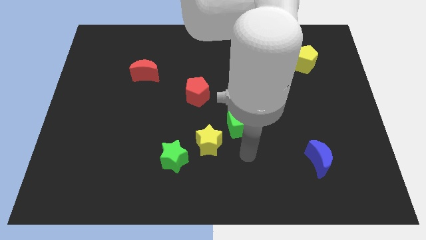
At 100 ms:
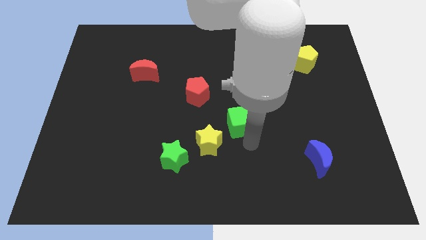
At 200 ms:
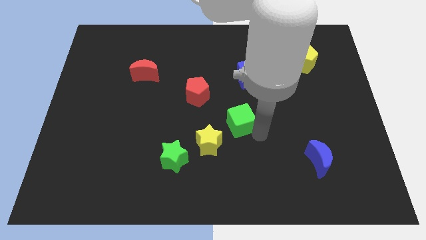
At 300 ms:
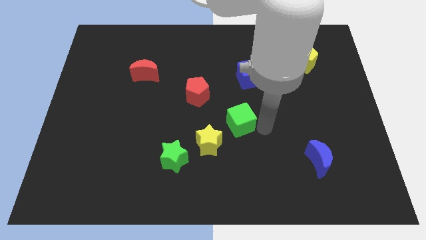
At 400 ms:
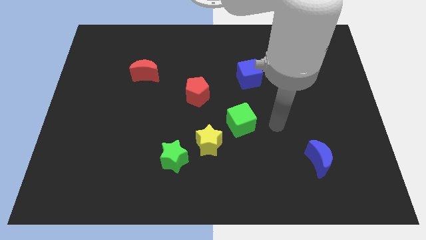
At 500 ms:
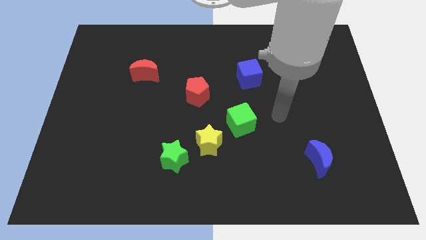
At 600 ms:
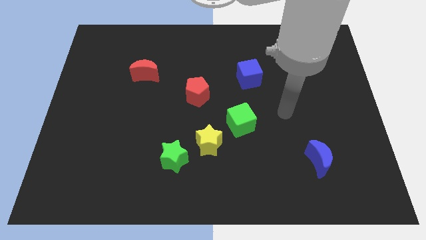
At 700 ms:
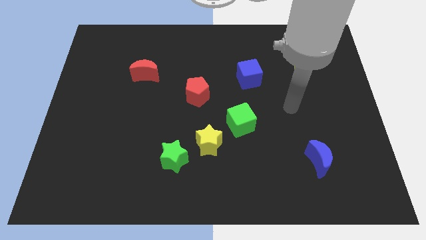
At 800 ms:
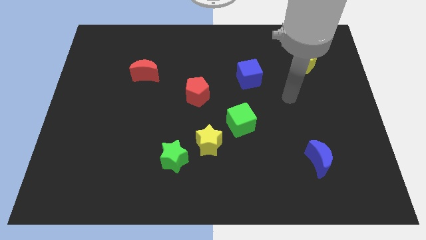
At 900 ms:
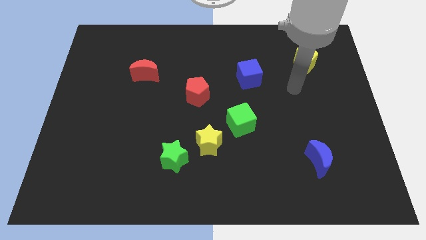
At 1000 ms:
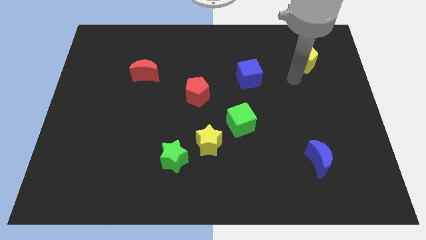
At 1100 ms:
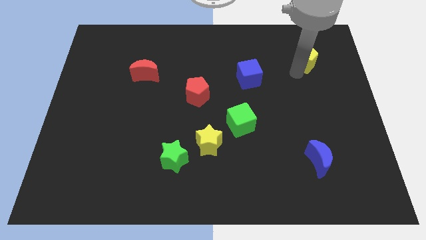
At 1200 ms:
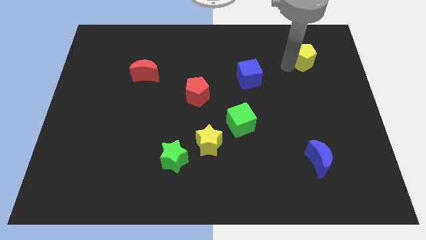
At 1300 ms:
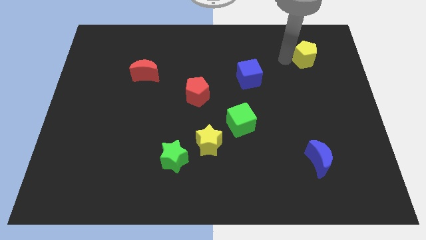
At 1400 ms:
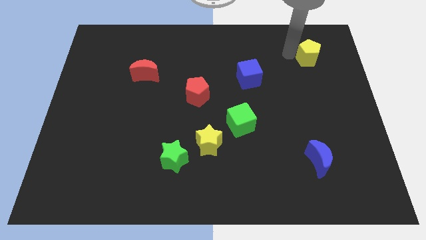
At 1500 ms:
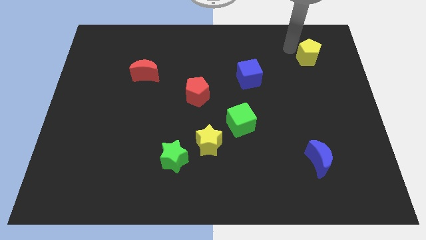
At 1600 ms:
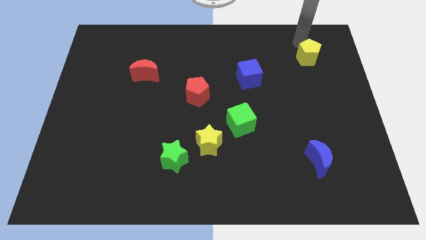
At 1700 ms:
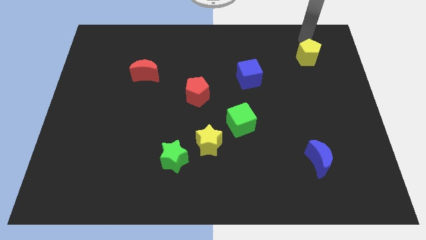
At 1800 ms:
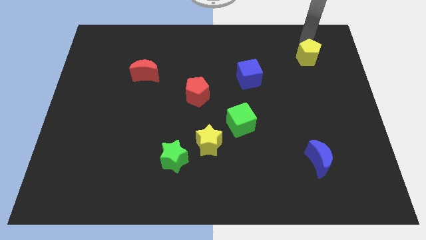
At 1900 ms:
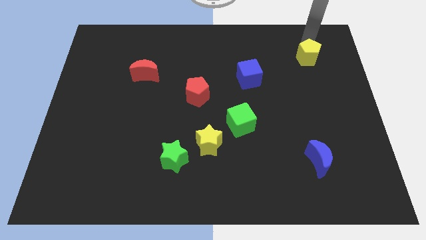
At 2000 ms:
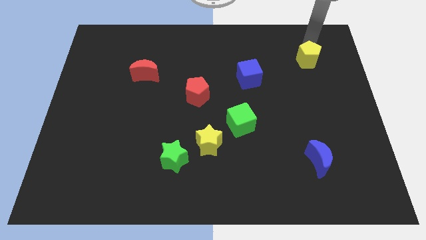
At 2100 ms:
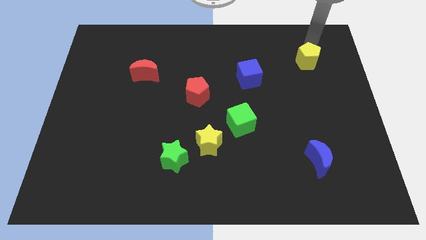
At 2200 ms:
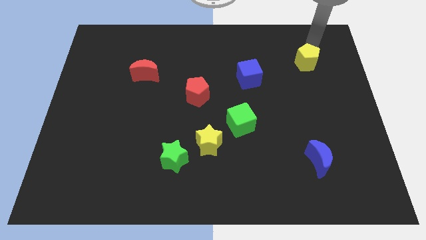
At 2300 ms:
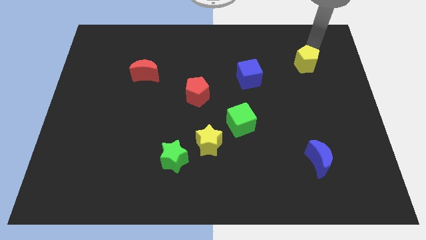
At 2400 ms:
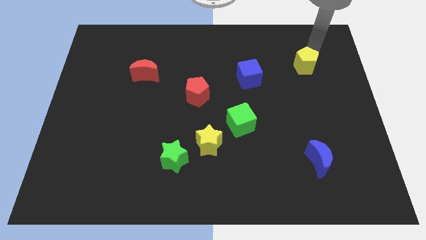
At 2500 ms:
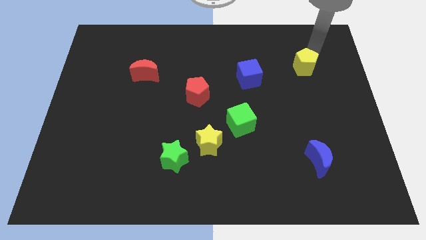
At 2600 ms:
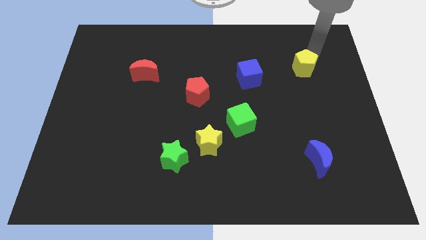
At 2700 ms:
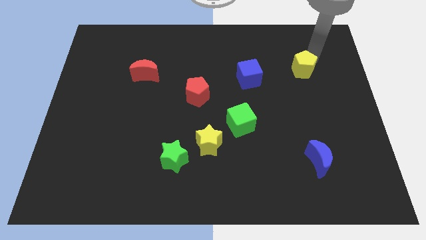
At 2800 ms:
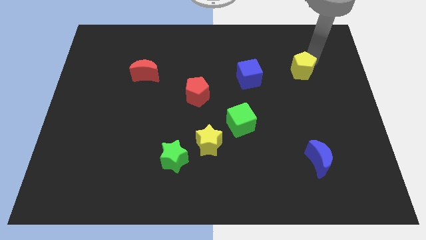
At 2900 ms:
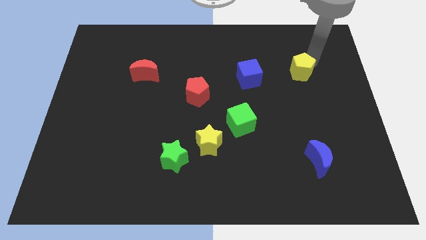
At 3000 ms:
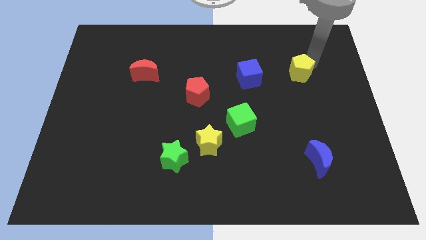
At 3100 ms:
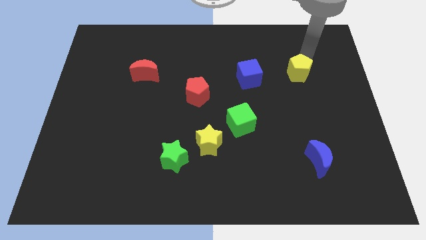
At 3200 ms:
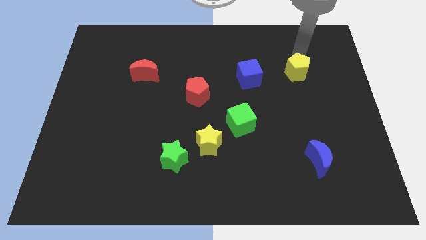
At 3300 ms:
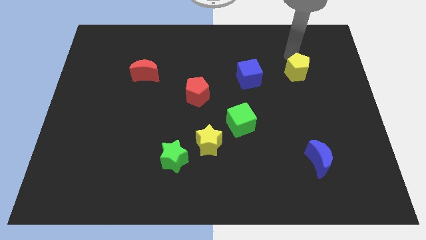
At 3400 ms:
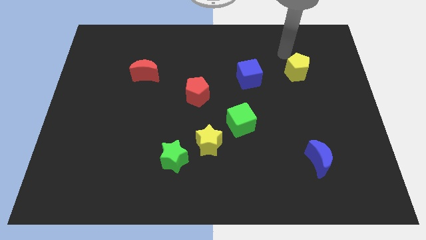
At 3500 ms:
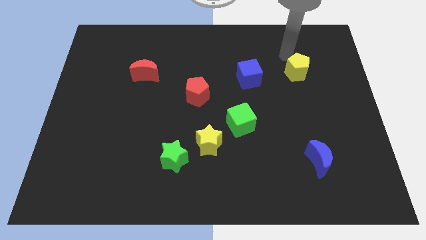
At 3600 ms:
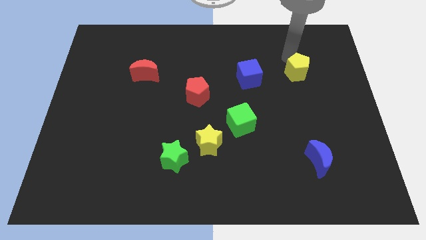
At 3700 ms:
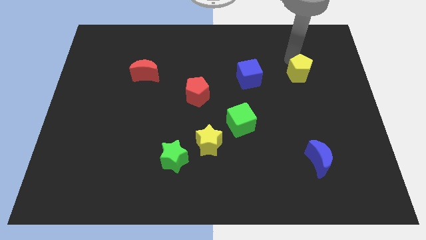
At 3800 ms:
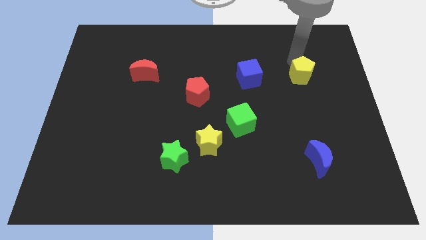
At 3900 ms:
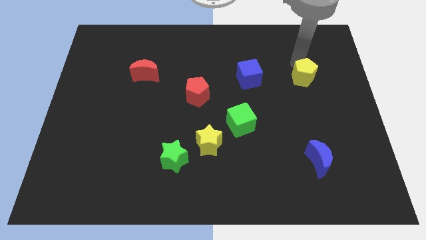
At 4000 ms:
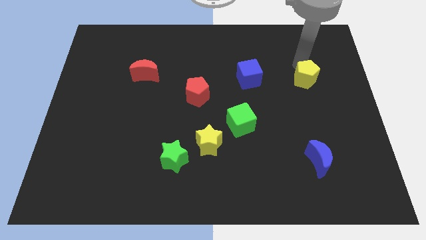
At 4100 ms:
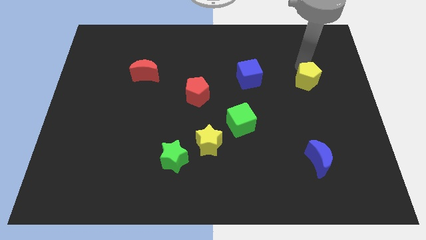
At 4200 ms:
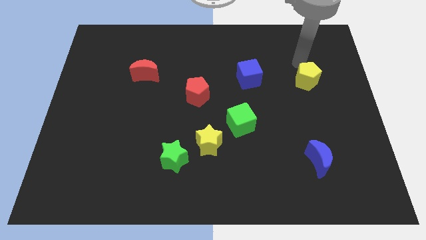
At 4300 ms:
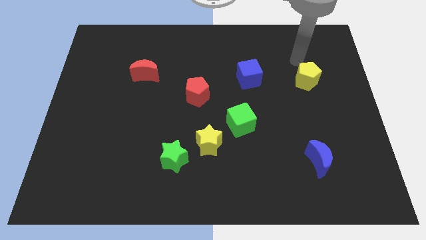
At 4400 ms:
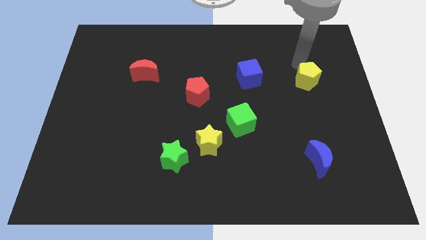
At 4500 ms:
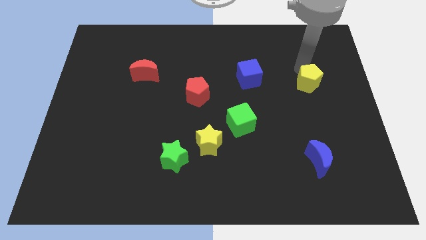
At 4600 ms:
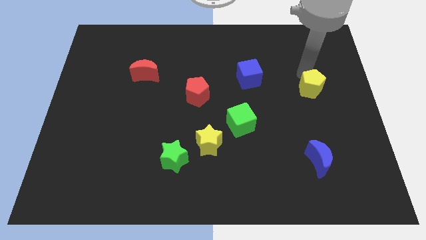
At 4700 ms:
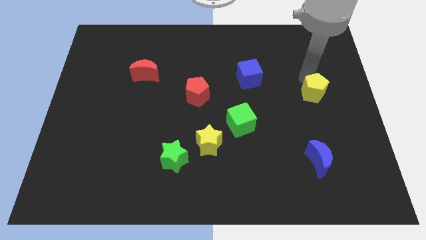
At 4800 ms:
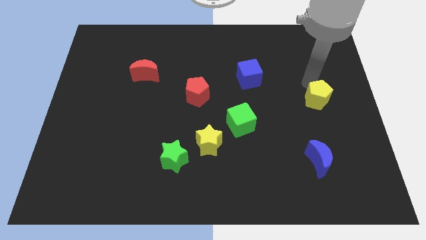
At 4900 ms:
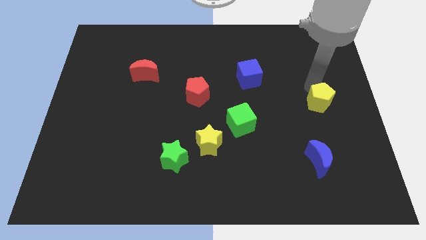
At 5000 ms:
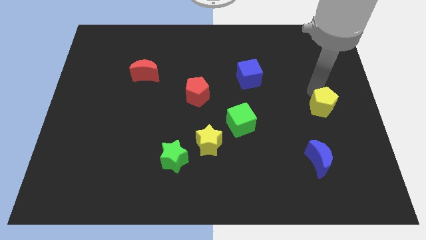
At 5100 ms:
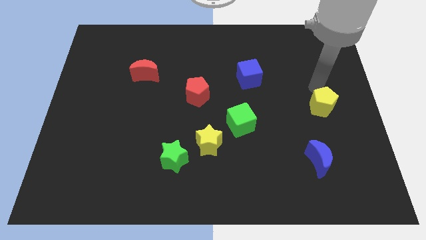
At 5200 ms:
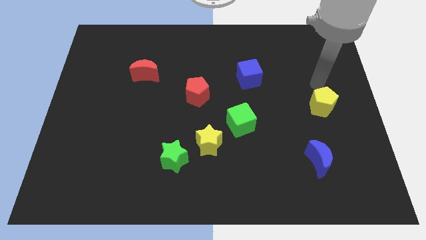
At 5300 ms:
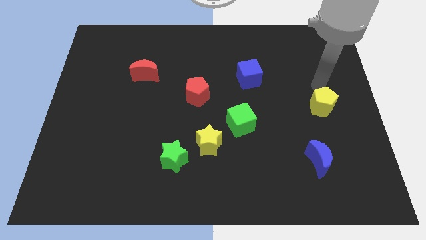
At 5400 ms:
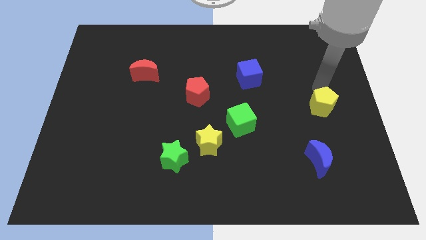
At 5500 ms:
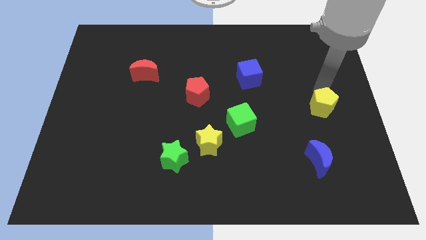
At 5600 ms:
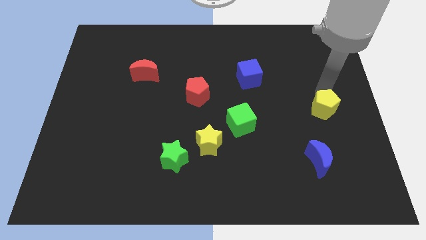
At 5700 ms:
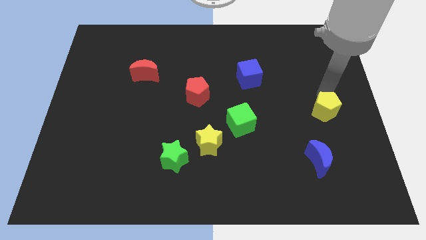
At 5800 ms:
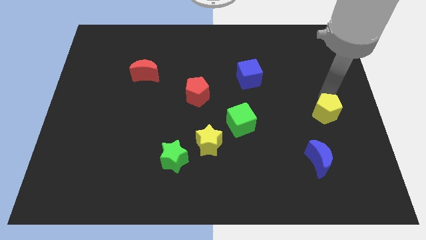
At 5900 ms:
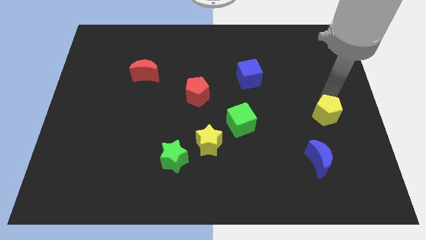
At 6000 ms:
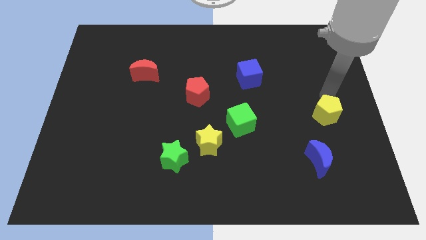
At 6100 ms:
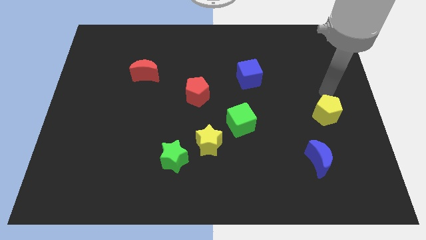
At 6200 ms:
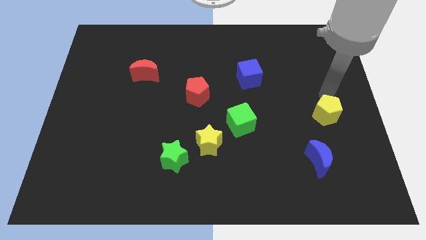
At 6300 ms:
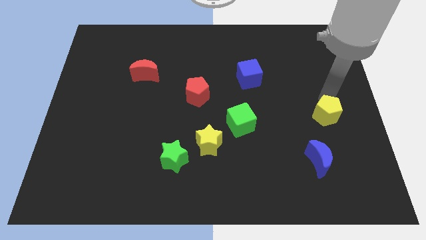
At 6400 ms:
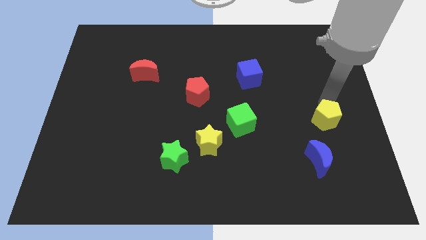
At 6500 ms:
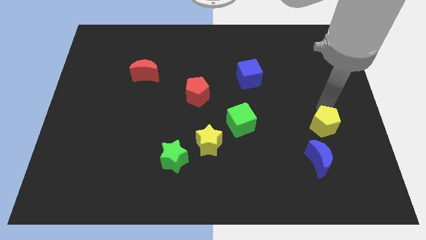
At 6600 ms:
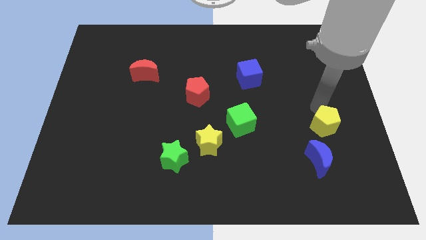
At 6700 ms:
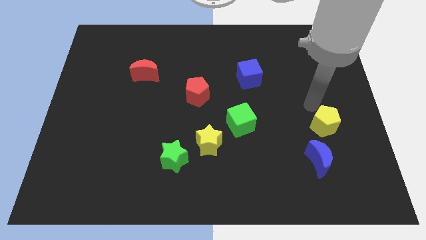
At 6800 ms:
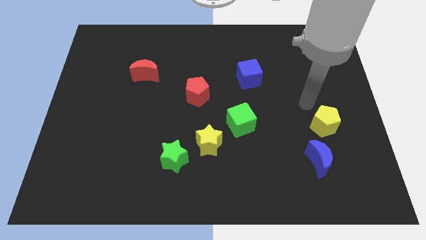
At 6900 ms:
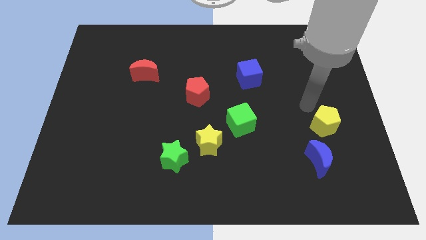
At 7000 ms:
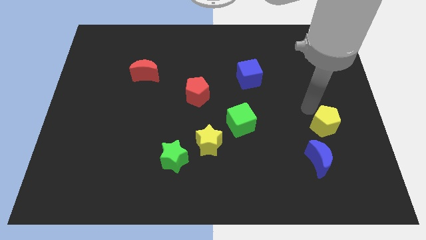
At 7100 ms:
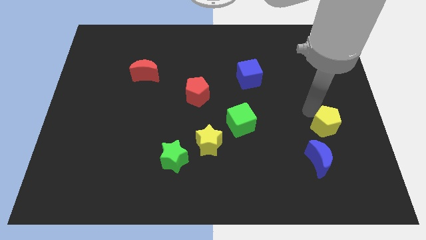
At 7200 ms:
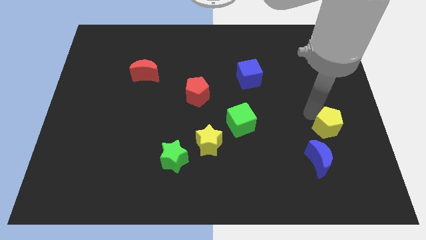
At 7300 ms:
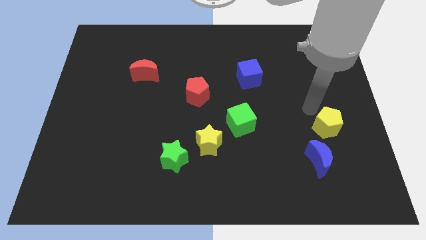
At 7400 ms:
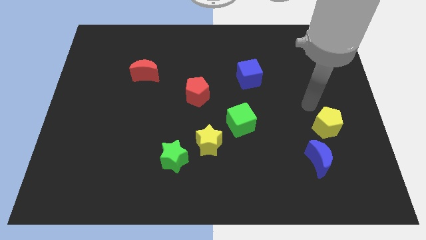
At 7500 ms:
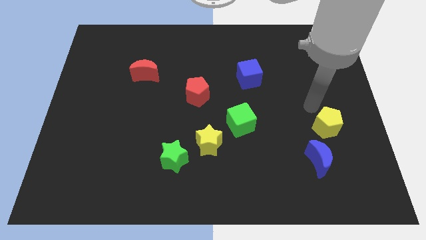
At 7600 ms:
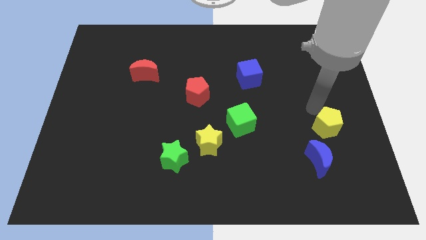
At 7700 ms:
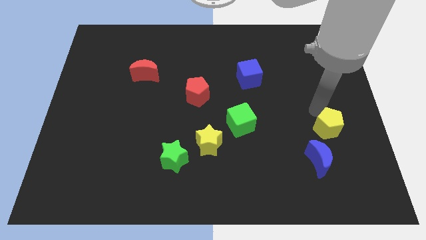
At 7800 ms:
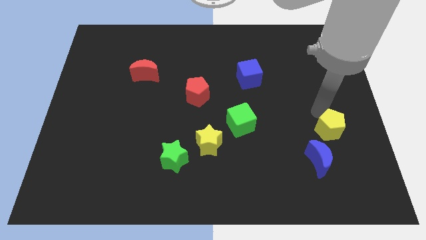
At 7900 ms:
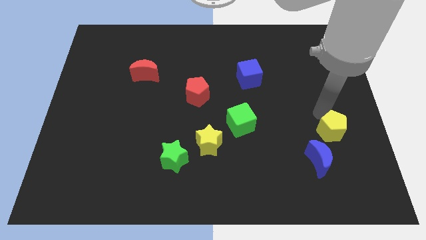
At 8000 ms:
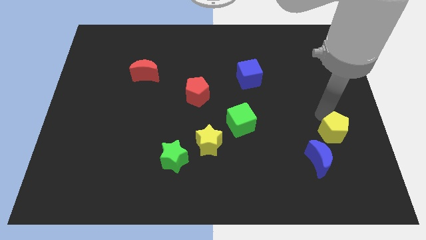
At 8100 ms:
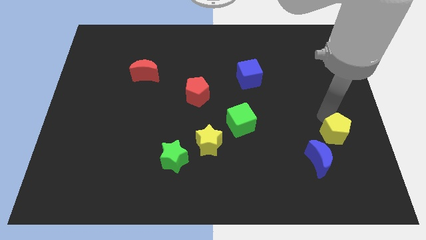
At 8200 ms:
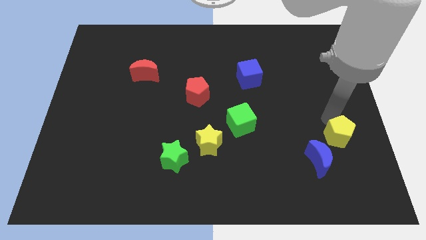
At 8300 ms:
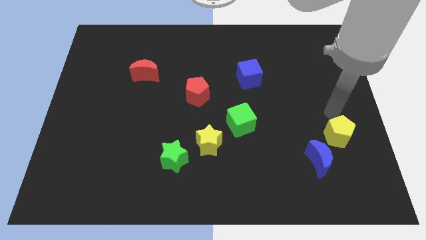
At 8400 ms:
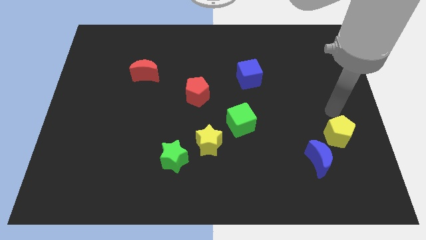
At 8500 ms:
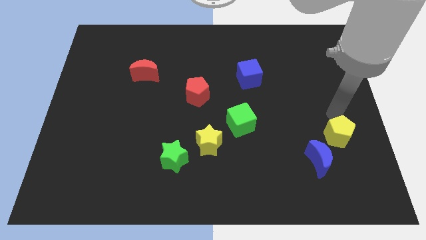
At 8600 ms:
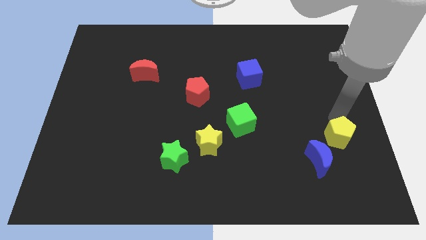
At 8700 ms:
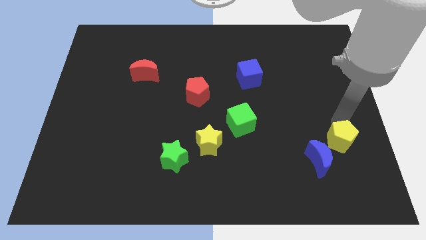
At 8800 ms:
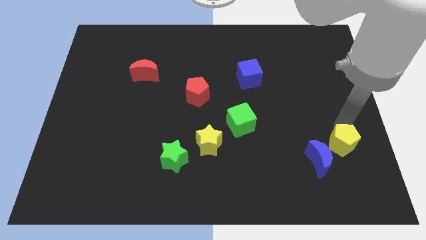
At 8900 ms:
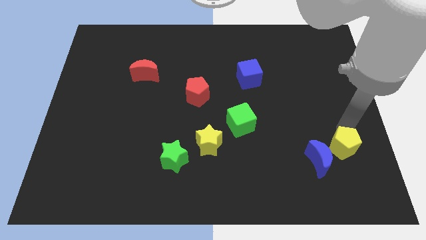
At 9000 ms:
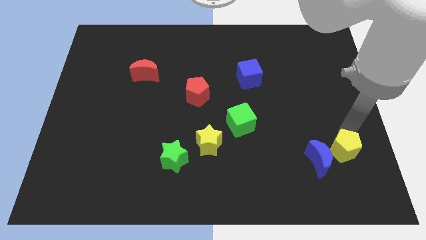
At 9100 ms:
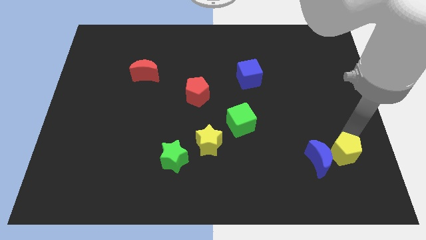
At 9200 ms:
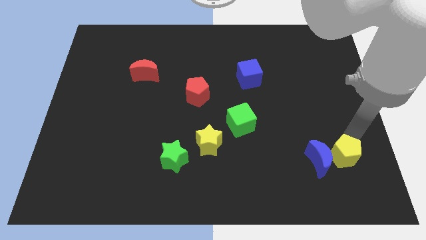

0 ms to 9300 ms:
slide the yellow pentagon to the bottom right side of the blue moon
